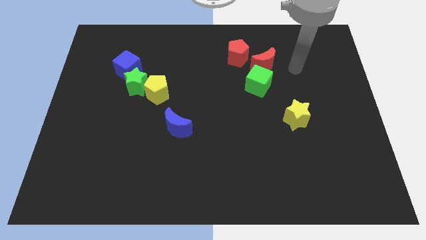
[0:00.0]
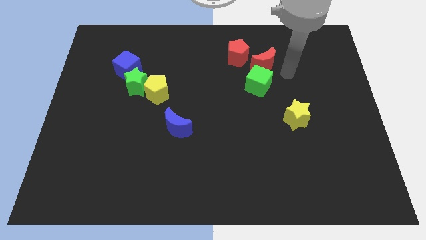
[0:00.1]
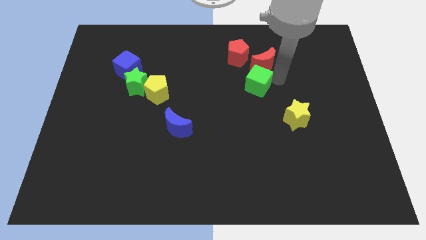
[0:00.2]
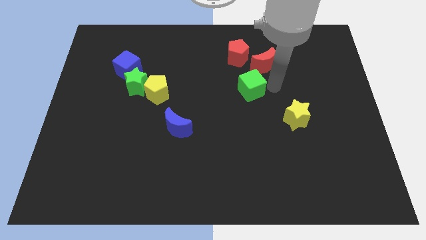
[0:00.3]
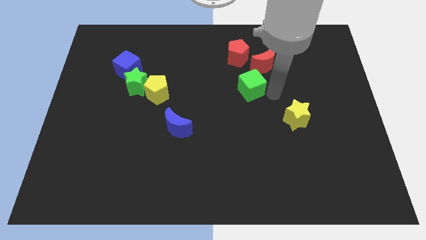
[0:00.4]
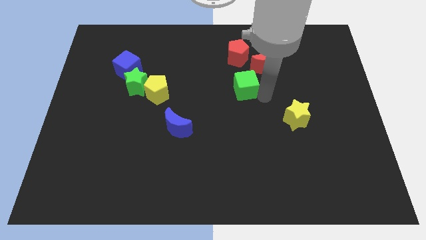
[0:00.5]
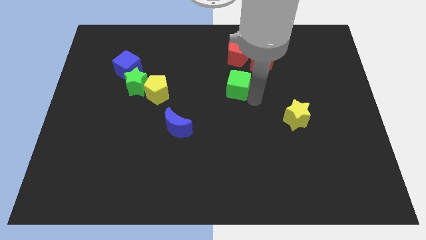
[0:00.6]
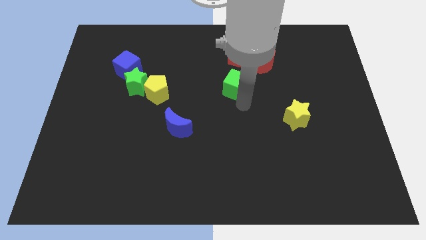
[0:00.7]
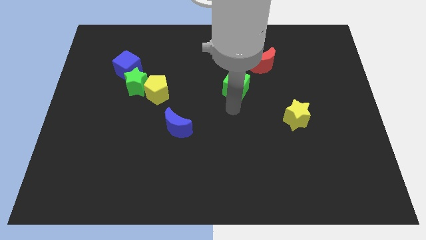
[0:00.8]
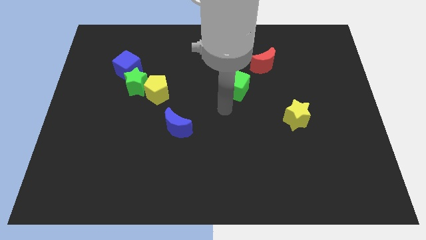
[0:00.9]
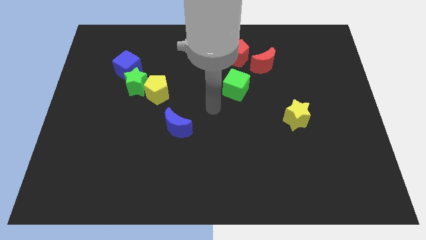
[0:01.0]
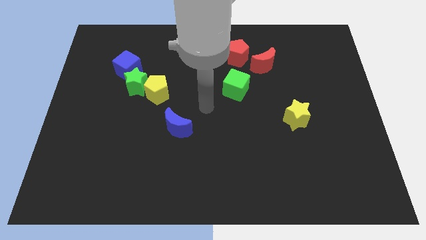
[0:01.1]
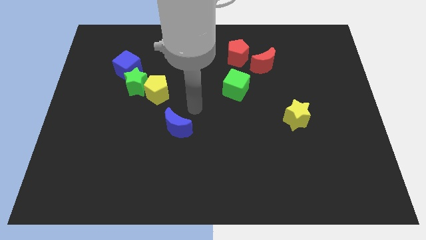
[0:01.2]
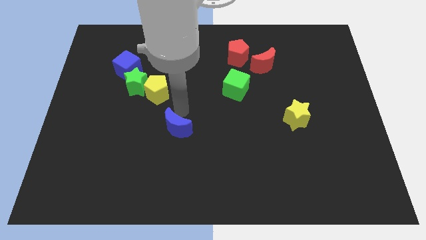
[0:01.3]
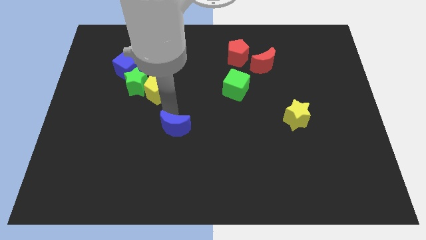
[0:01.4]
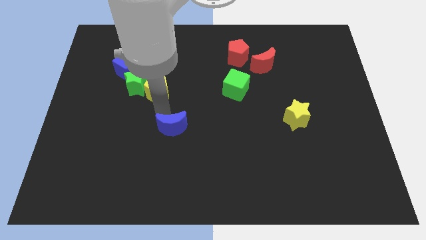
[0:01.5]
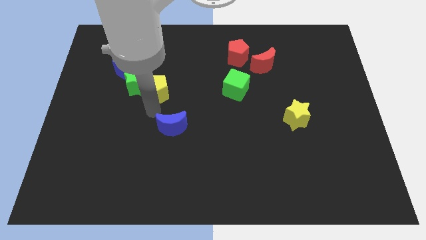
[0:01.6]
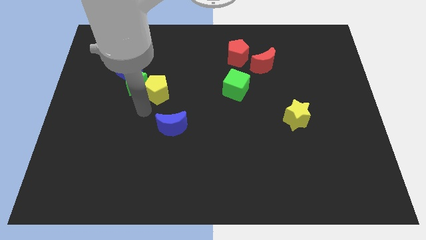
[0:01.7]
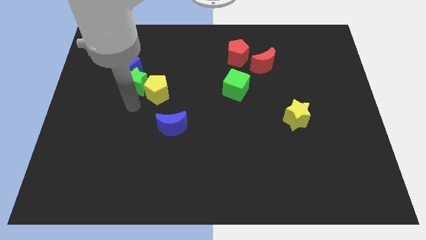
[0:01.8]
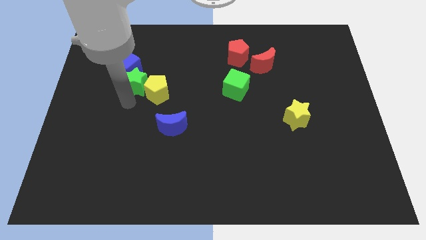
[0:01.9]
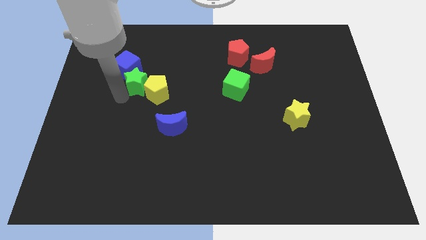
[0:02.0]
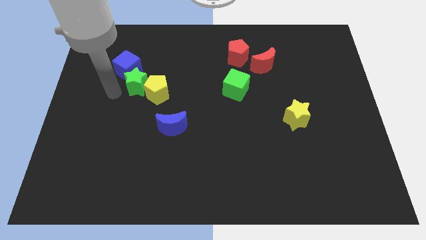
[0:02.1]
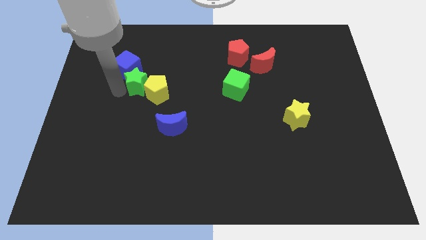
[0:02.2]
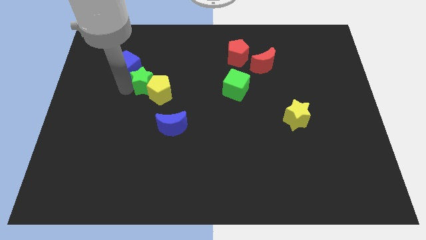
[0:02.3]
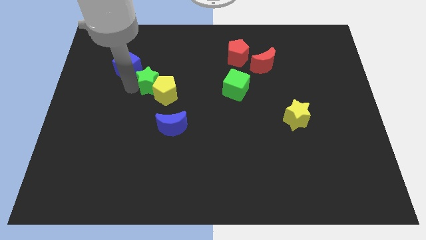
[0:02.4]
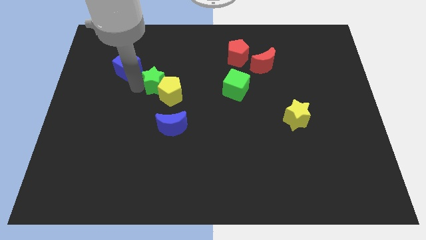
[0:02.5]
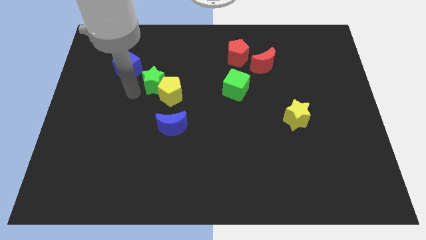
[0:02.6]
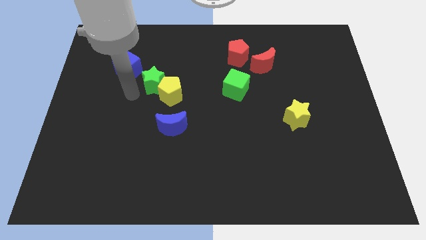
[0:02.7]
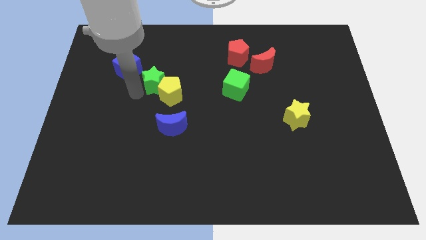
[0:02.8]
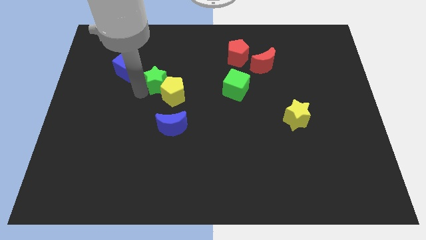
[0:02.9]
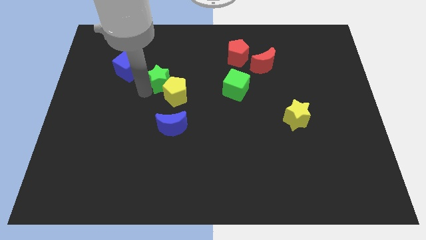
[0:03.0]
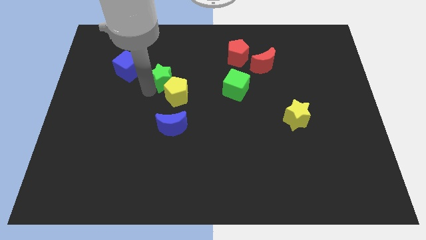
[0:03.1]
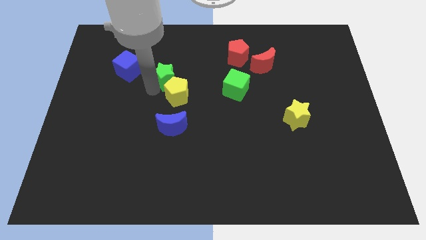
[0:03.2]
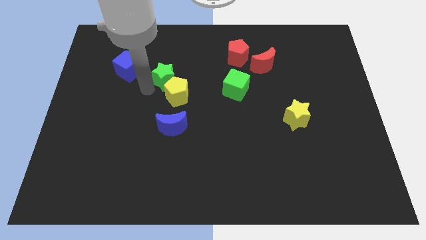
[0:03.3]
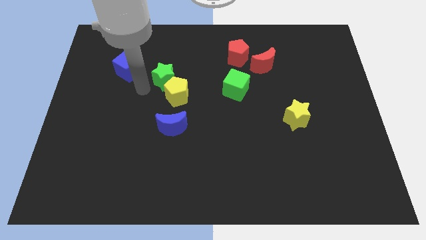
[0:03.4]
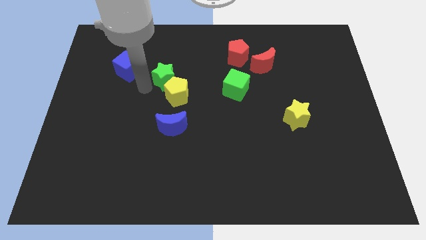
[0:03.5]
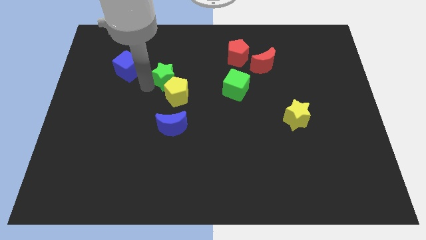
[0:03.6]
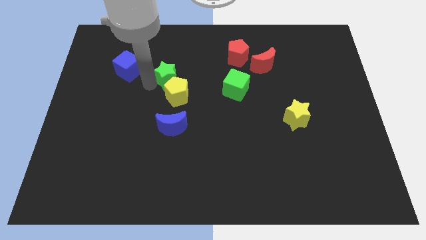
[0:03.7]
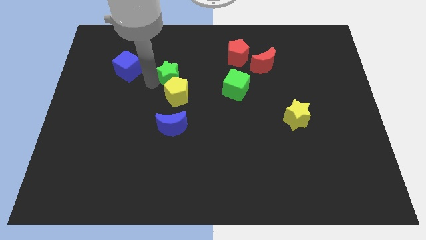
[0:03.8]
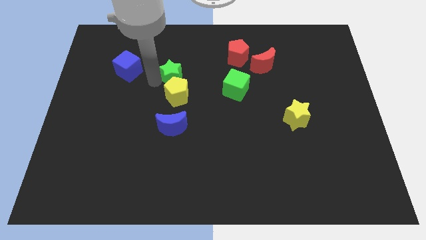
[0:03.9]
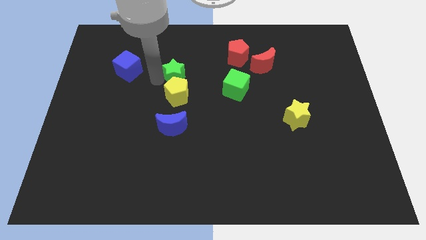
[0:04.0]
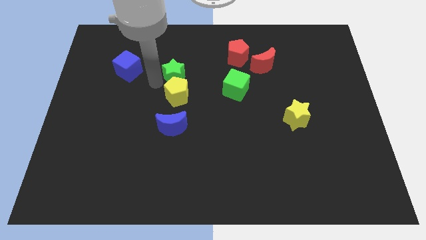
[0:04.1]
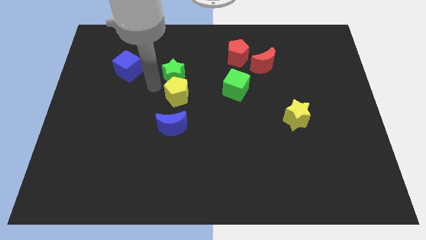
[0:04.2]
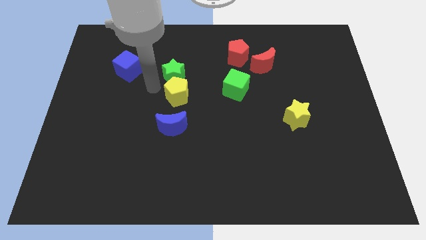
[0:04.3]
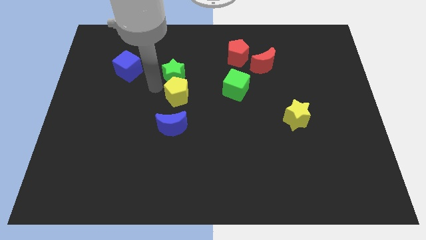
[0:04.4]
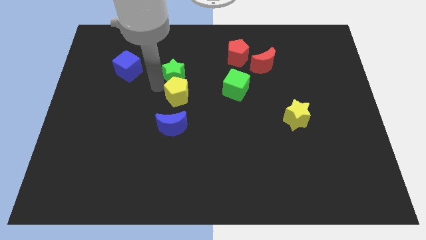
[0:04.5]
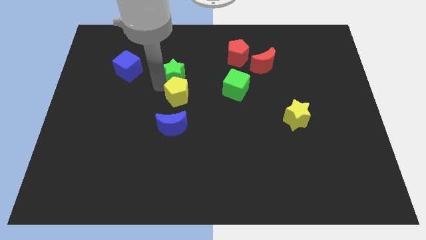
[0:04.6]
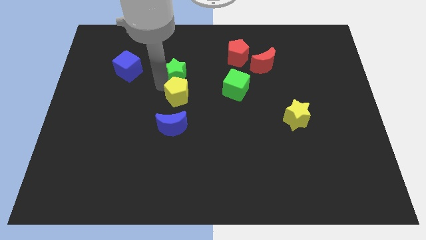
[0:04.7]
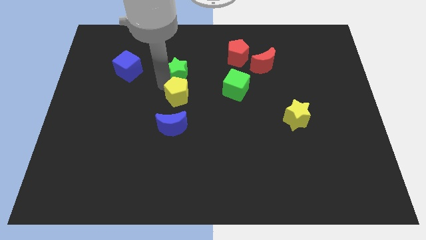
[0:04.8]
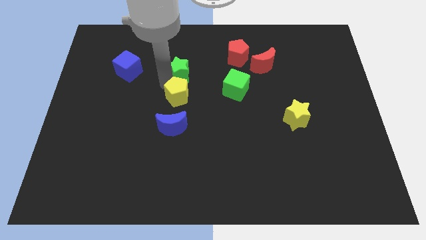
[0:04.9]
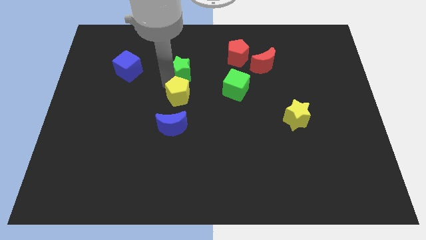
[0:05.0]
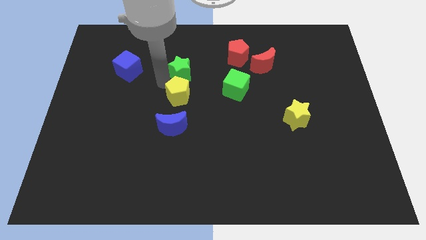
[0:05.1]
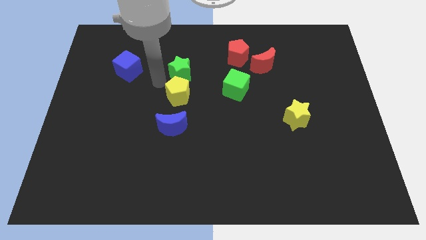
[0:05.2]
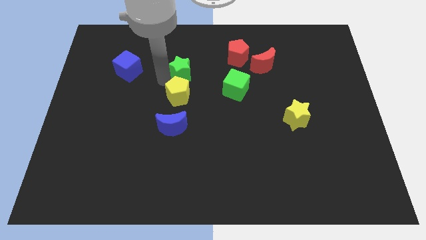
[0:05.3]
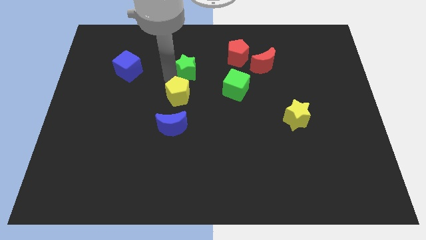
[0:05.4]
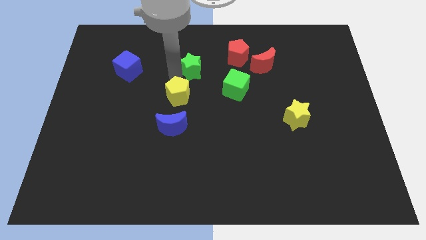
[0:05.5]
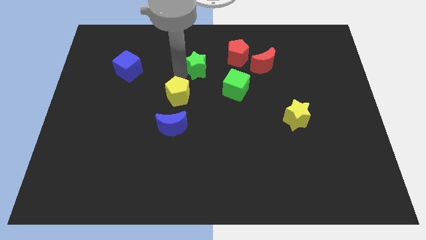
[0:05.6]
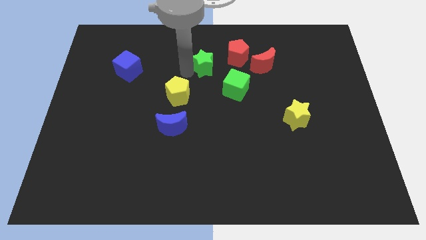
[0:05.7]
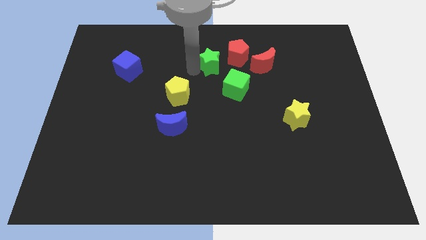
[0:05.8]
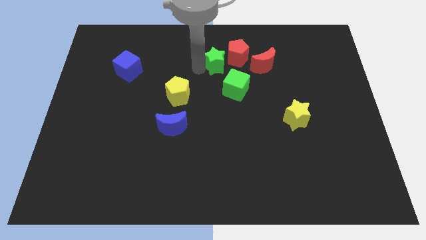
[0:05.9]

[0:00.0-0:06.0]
push the green star towards the red pentagon
